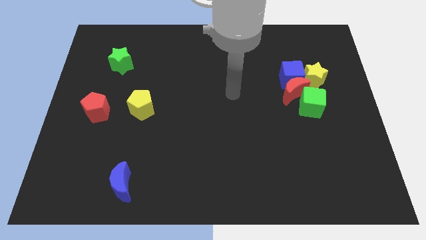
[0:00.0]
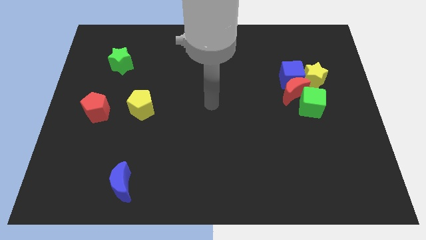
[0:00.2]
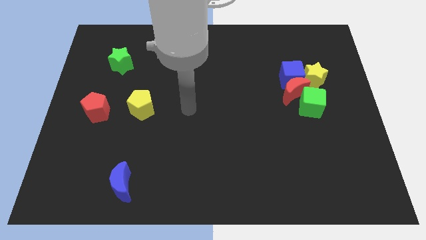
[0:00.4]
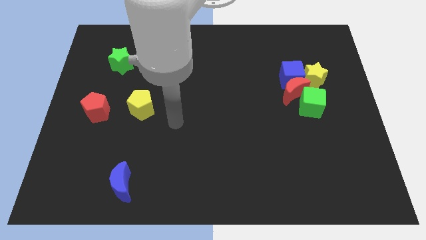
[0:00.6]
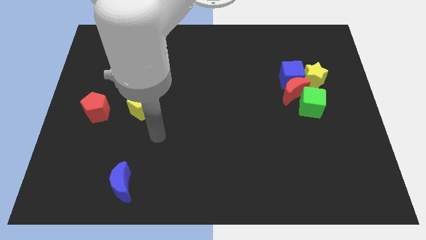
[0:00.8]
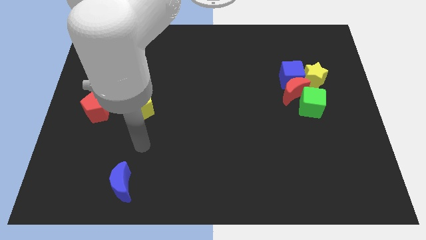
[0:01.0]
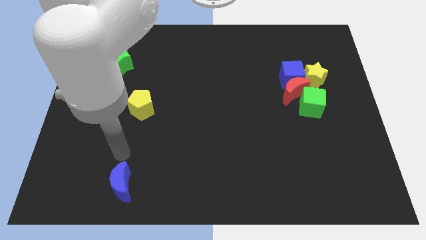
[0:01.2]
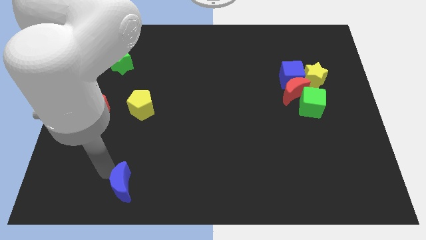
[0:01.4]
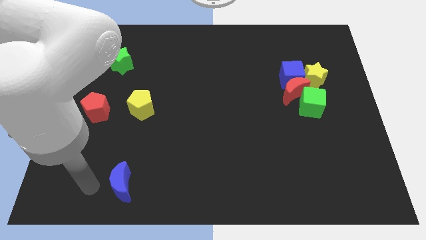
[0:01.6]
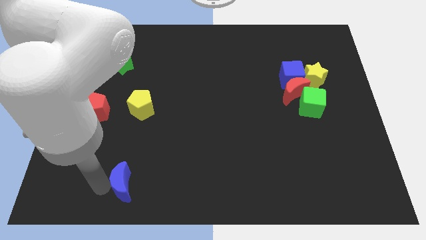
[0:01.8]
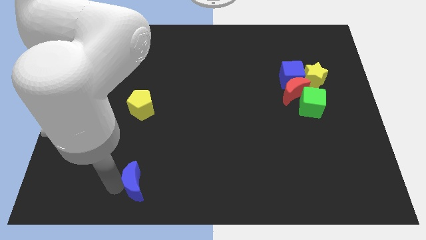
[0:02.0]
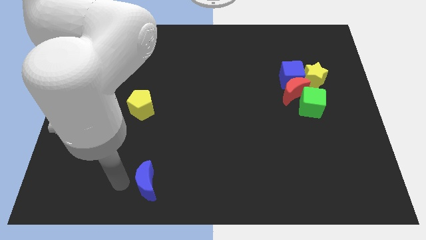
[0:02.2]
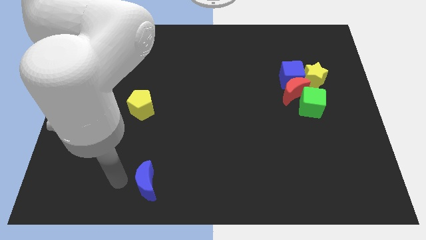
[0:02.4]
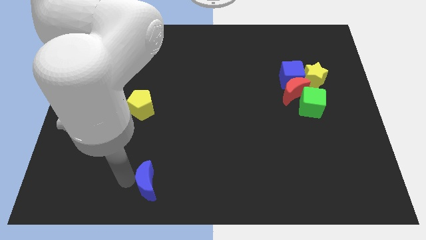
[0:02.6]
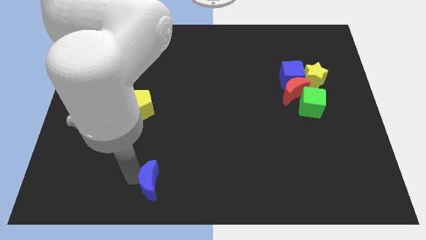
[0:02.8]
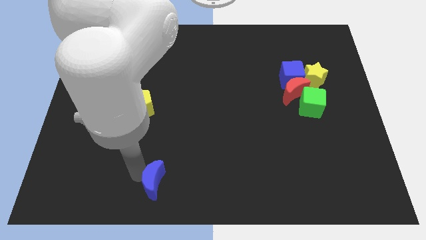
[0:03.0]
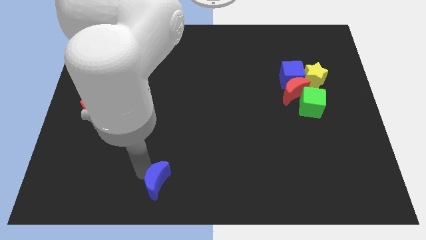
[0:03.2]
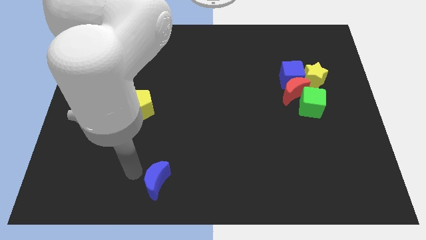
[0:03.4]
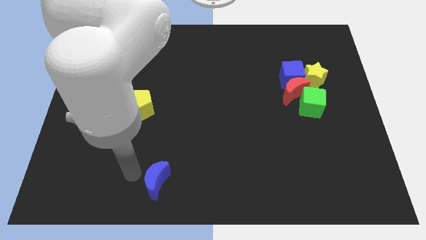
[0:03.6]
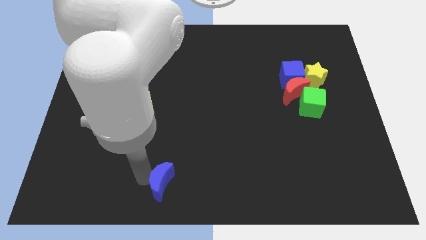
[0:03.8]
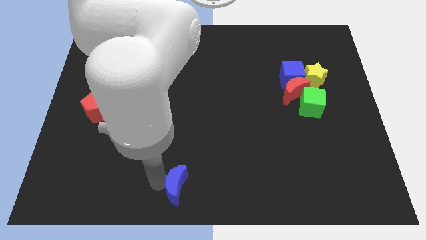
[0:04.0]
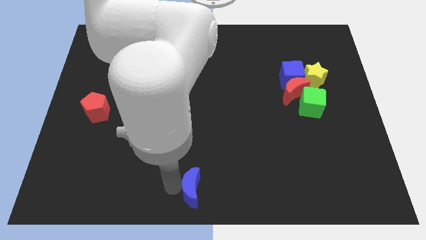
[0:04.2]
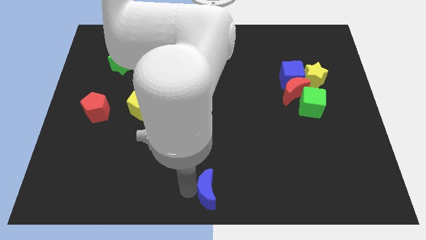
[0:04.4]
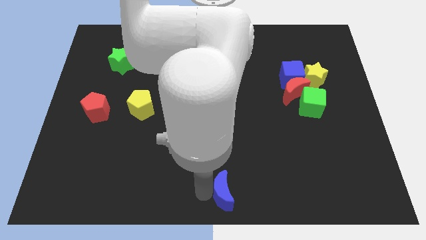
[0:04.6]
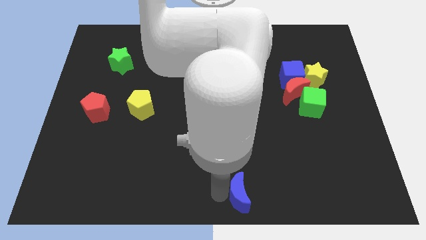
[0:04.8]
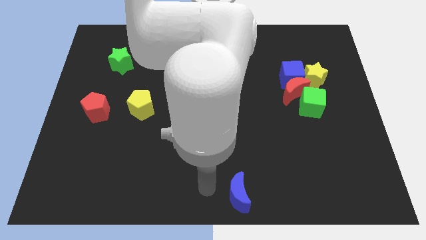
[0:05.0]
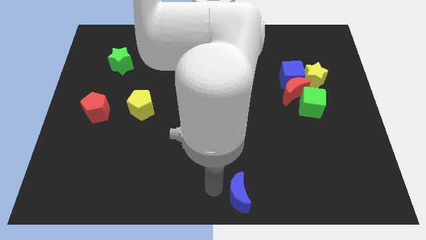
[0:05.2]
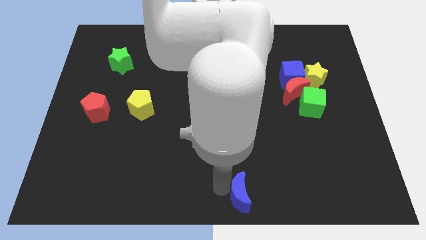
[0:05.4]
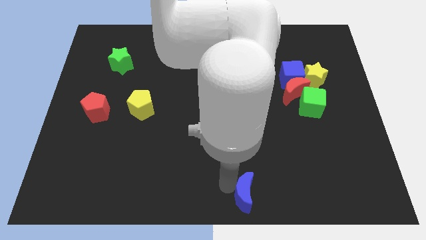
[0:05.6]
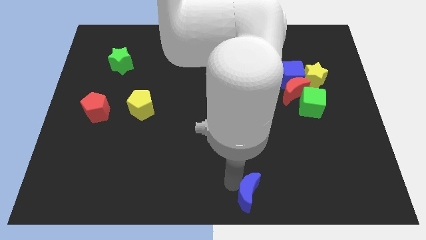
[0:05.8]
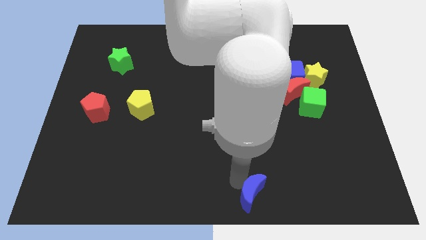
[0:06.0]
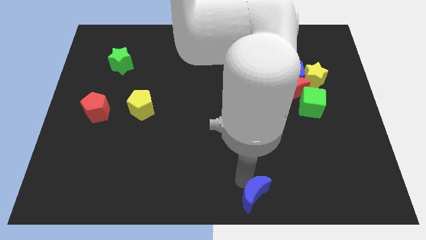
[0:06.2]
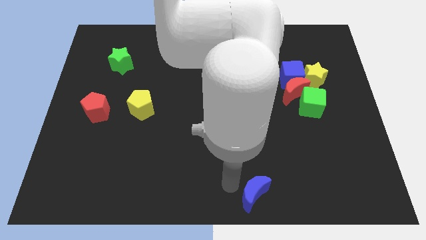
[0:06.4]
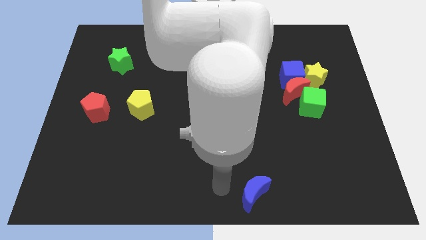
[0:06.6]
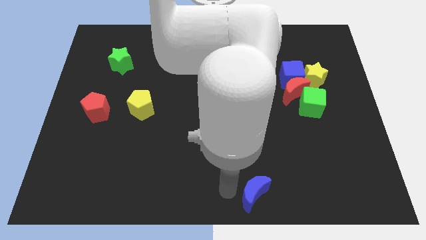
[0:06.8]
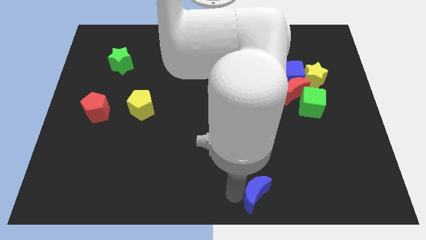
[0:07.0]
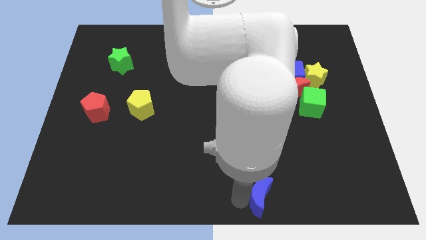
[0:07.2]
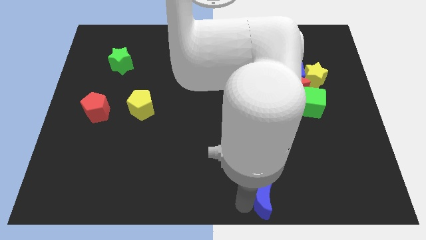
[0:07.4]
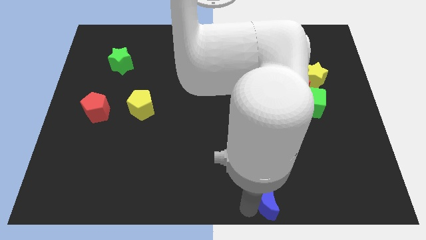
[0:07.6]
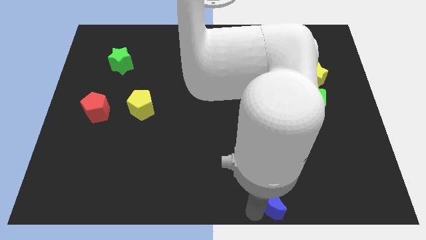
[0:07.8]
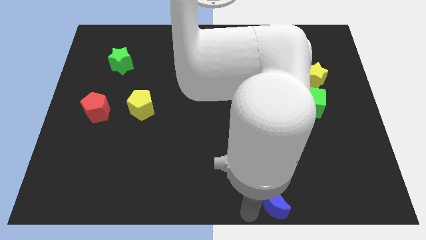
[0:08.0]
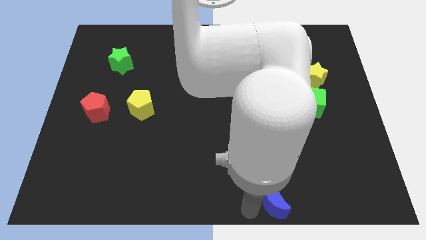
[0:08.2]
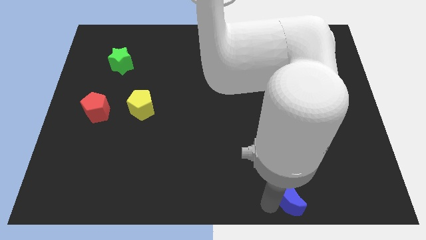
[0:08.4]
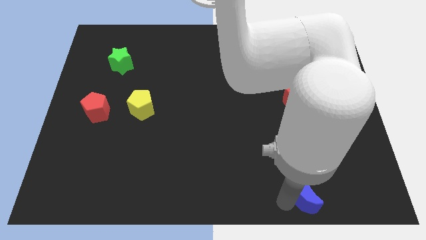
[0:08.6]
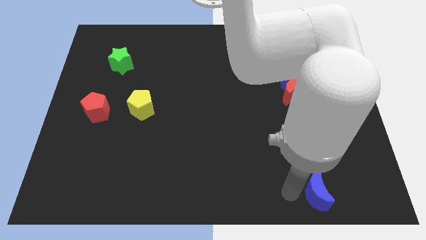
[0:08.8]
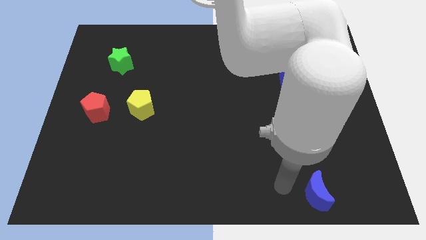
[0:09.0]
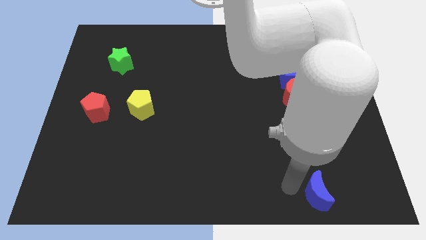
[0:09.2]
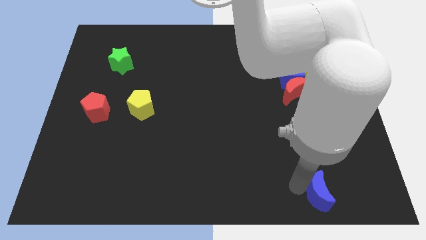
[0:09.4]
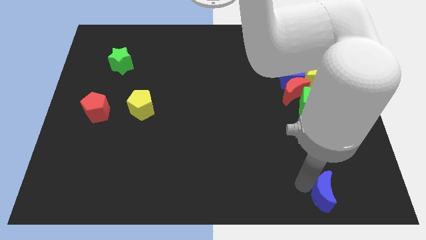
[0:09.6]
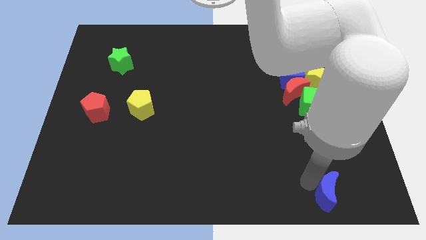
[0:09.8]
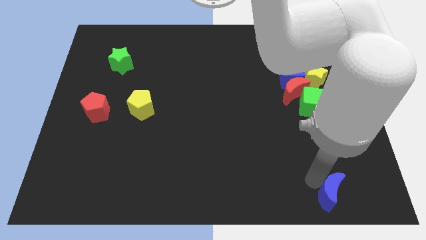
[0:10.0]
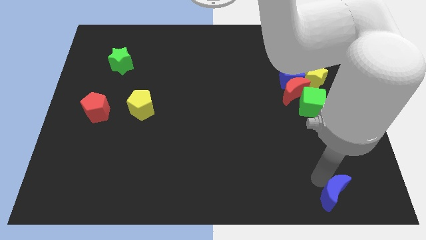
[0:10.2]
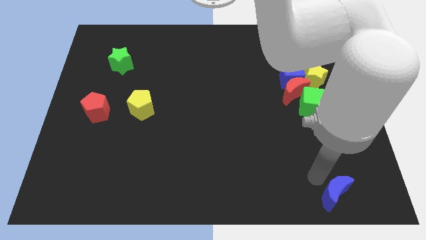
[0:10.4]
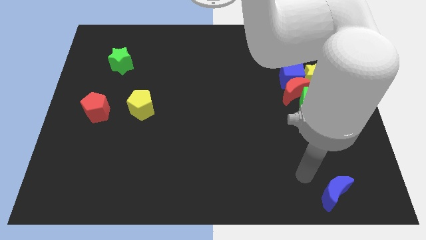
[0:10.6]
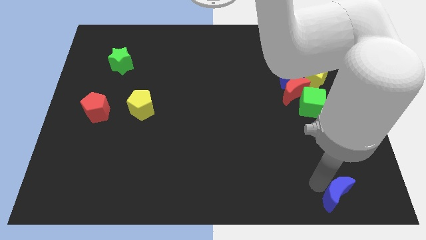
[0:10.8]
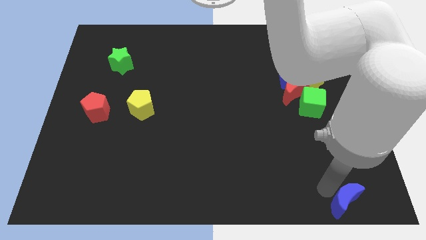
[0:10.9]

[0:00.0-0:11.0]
slide the blue moon to the lower right corner

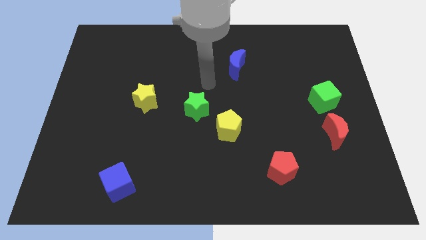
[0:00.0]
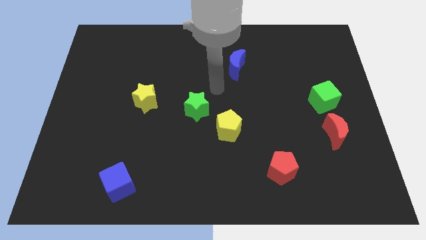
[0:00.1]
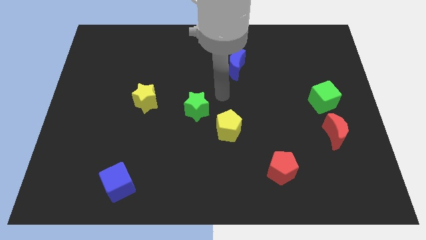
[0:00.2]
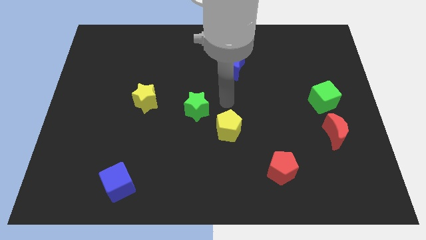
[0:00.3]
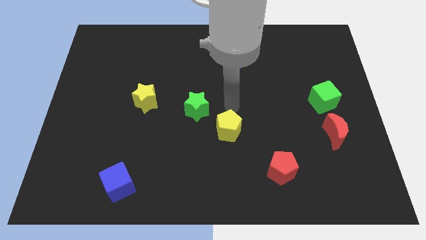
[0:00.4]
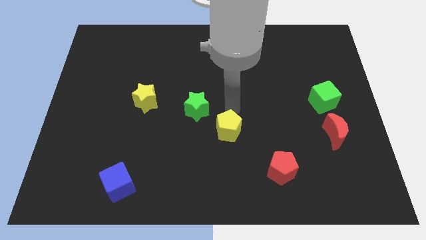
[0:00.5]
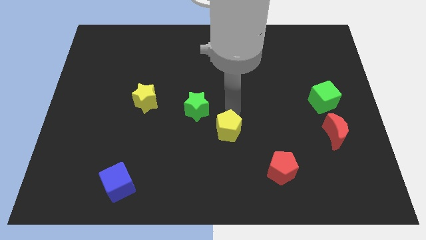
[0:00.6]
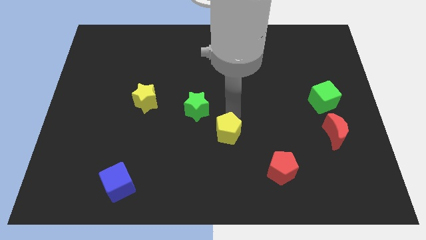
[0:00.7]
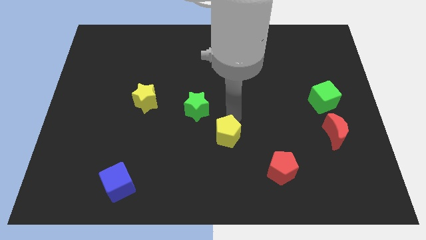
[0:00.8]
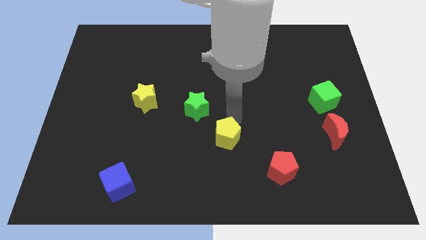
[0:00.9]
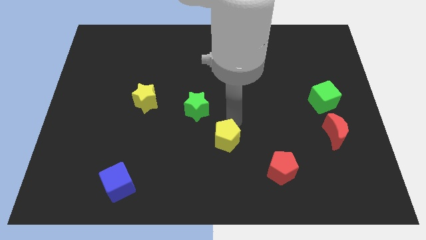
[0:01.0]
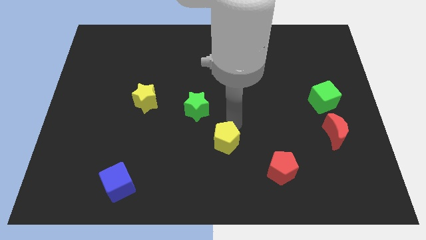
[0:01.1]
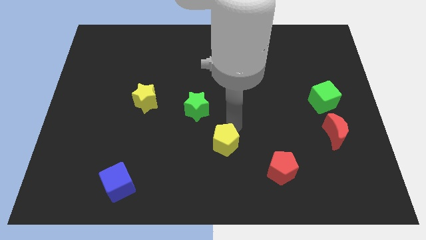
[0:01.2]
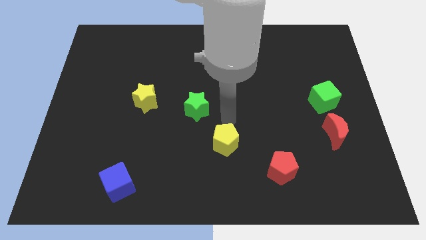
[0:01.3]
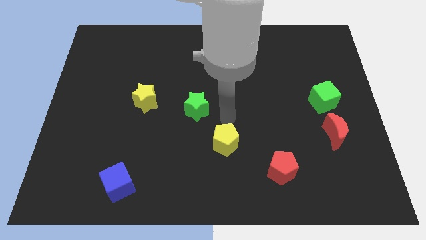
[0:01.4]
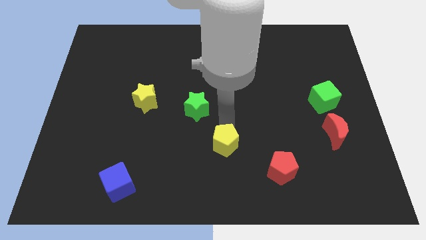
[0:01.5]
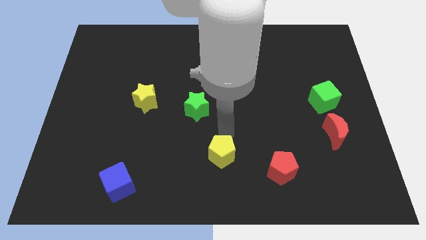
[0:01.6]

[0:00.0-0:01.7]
push the yellow pentagon to the bottom side
